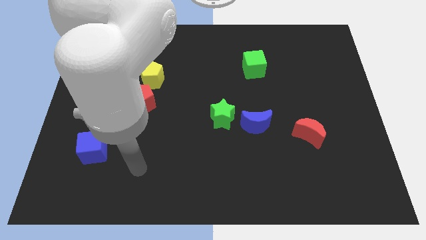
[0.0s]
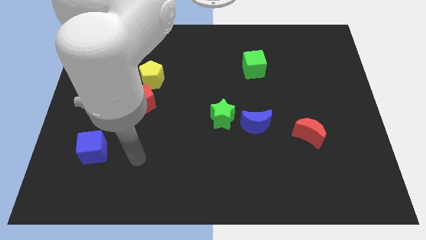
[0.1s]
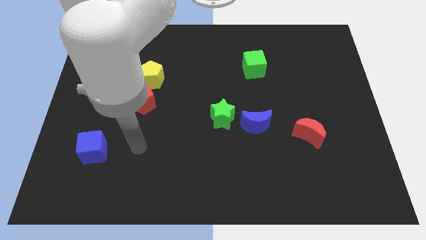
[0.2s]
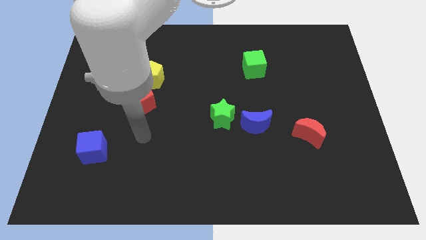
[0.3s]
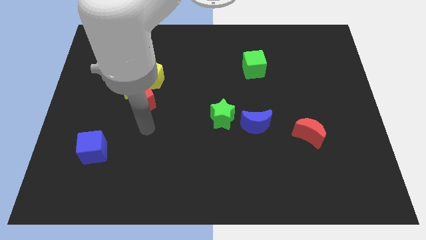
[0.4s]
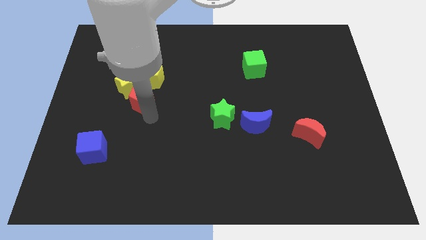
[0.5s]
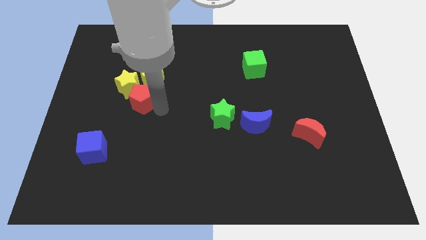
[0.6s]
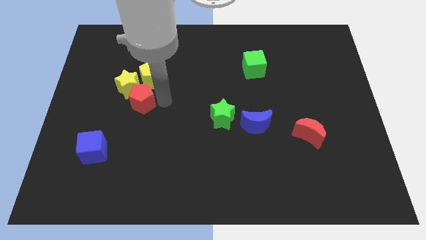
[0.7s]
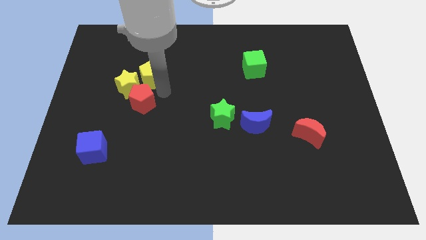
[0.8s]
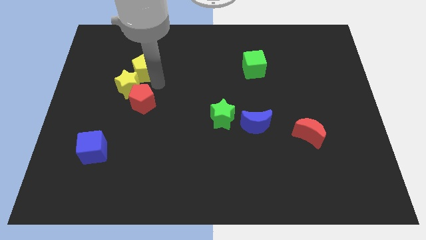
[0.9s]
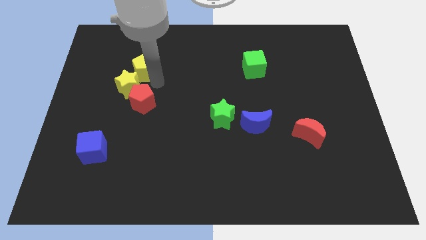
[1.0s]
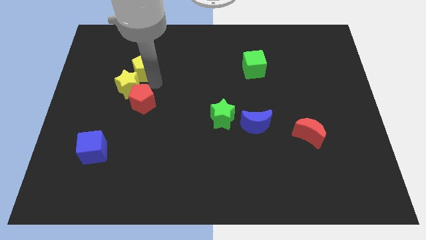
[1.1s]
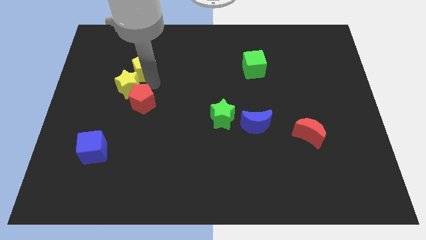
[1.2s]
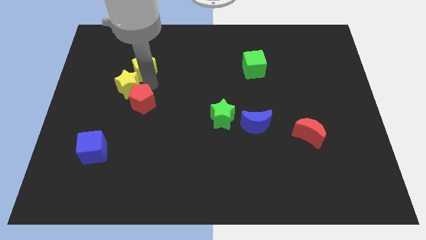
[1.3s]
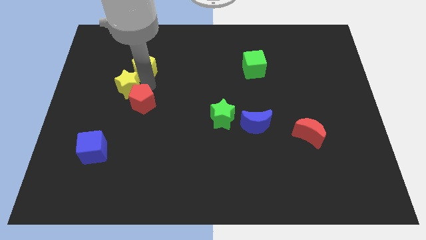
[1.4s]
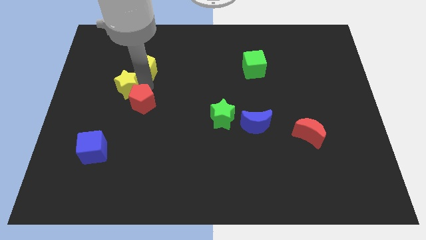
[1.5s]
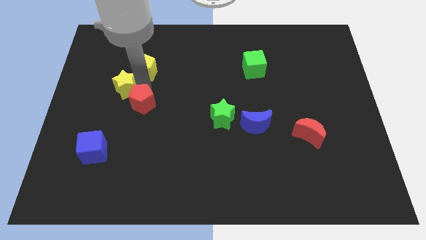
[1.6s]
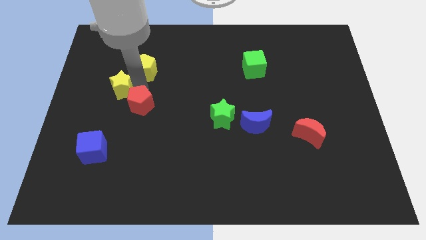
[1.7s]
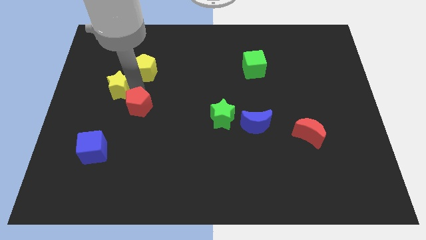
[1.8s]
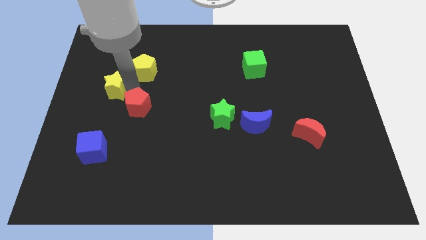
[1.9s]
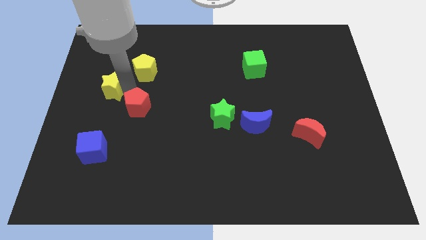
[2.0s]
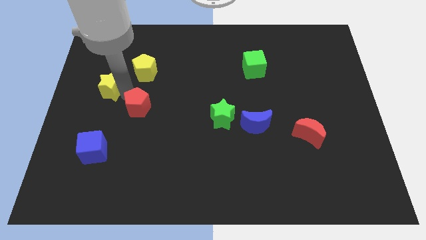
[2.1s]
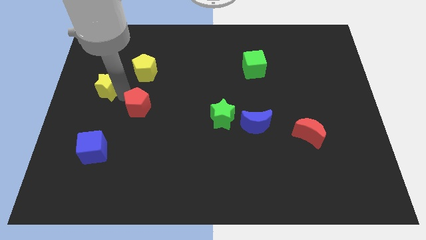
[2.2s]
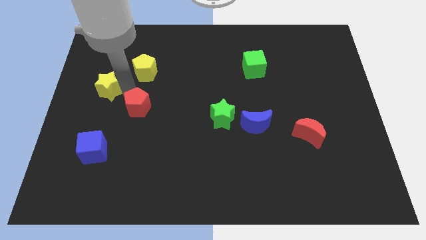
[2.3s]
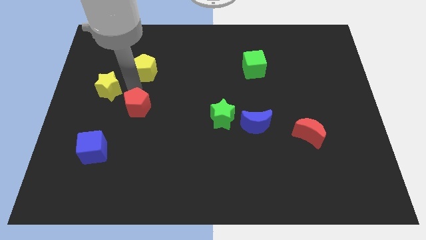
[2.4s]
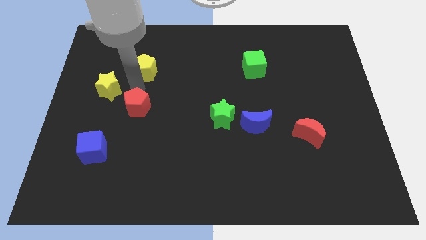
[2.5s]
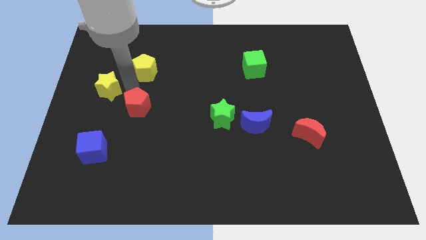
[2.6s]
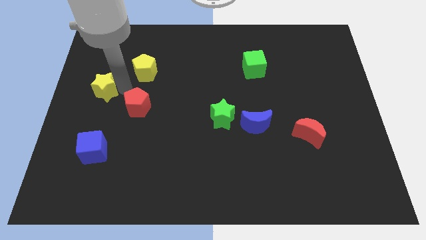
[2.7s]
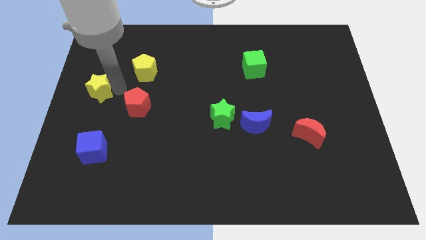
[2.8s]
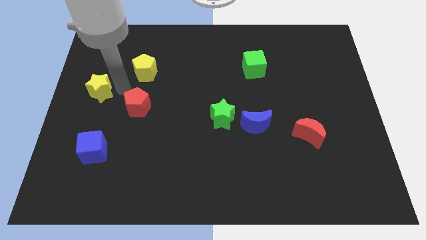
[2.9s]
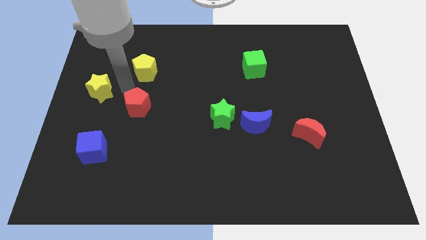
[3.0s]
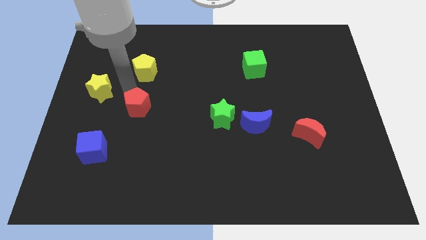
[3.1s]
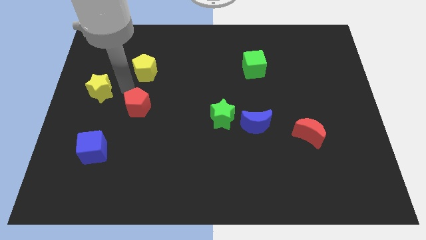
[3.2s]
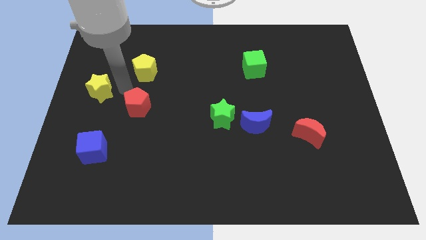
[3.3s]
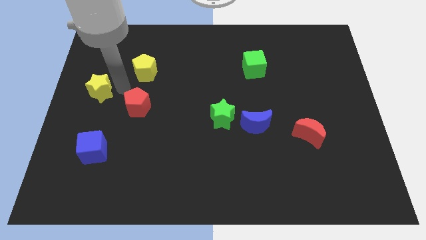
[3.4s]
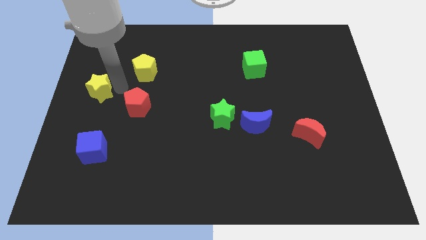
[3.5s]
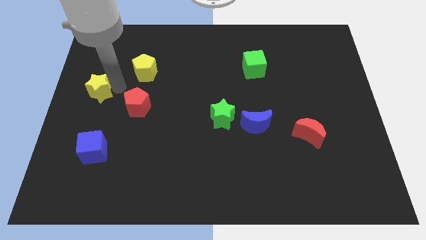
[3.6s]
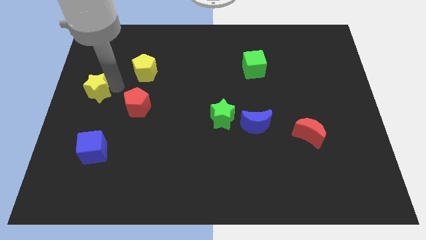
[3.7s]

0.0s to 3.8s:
move the yellow star away from the yellow pentagon and red pentagon

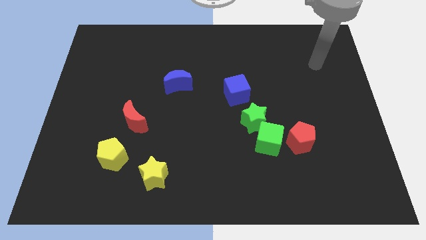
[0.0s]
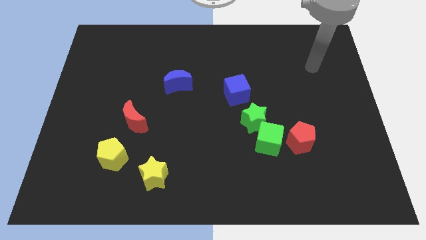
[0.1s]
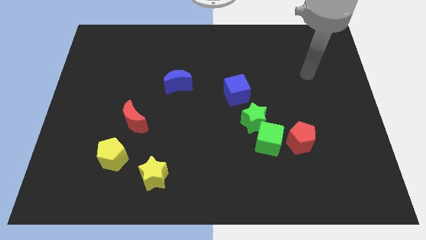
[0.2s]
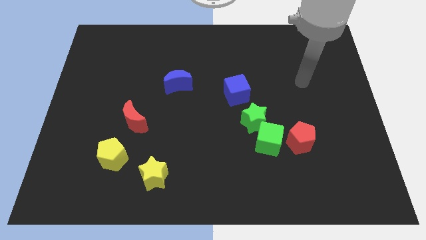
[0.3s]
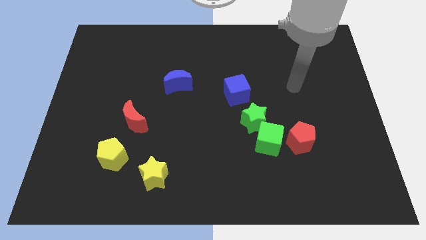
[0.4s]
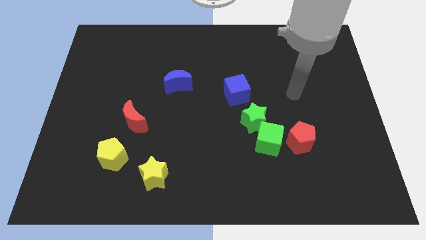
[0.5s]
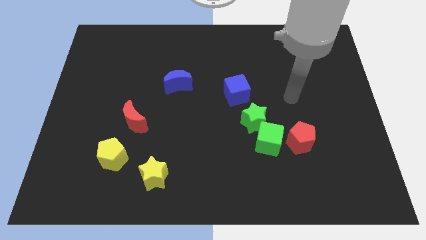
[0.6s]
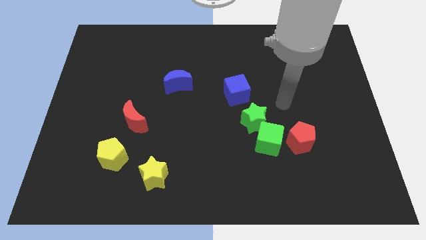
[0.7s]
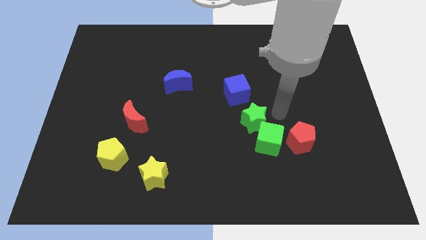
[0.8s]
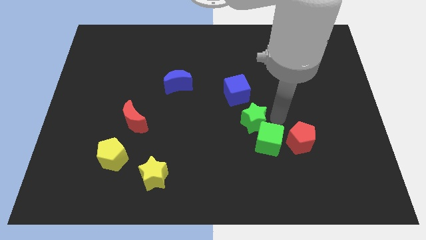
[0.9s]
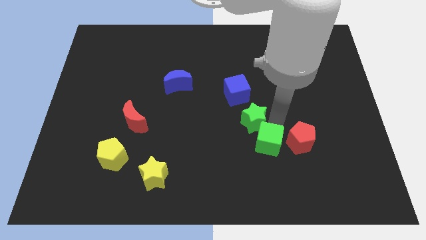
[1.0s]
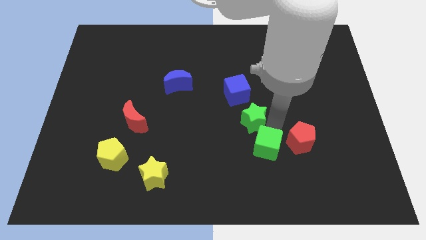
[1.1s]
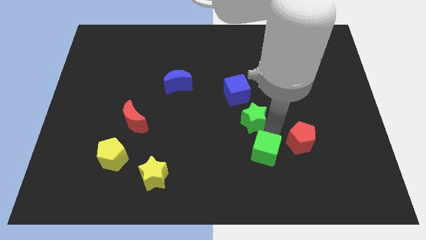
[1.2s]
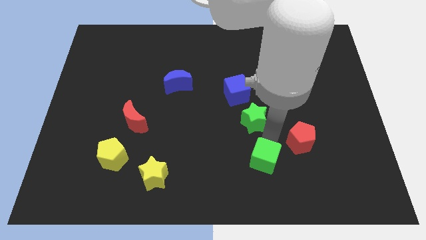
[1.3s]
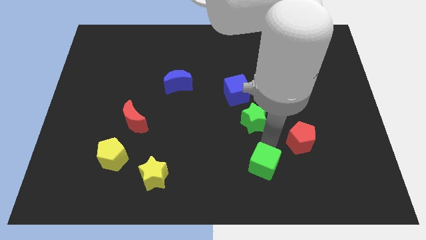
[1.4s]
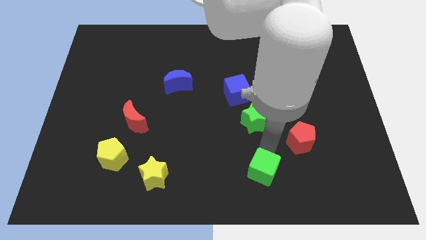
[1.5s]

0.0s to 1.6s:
move the green cube away from the green star and red pentagon

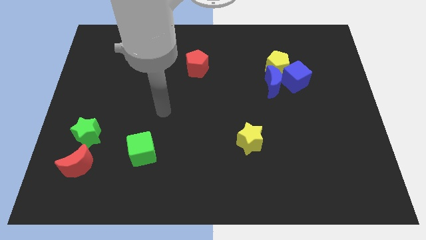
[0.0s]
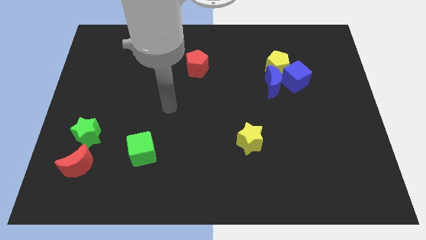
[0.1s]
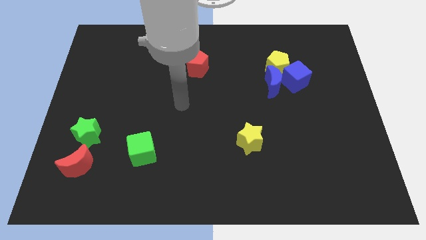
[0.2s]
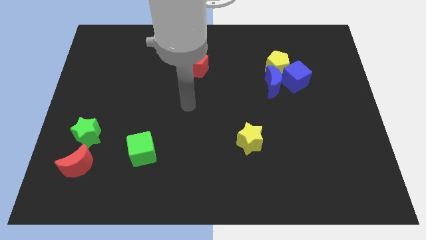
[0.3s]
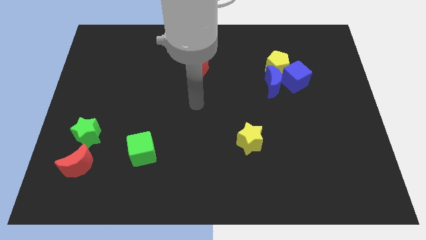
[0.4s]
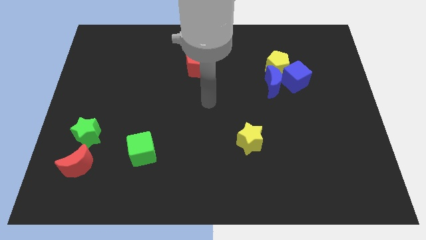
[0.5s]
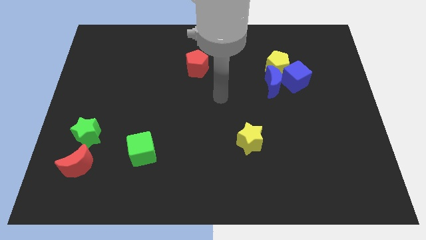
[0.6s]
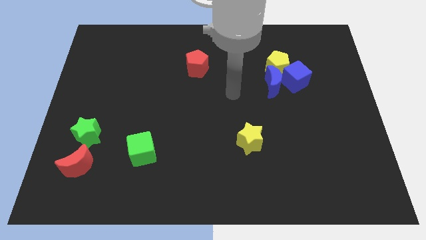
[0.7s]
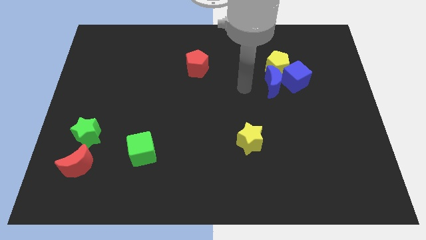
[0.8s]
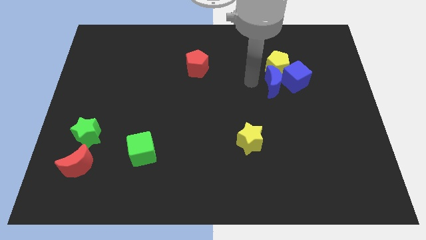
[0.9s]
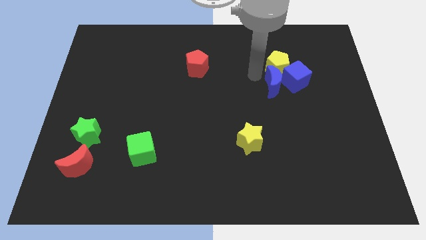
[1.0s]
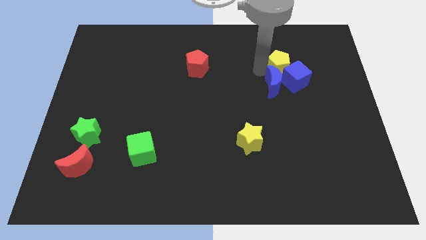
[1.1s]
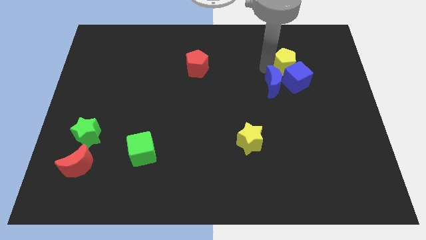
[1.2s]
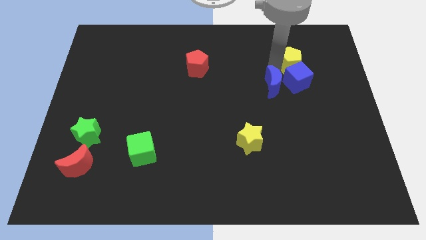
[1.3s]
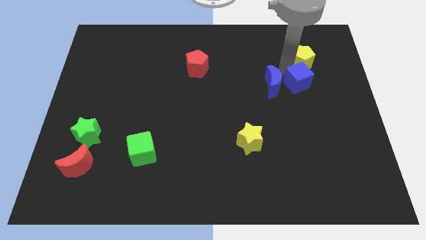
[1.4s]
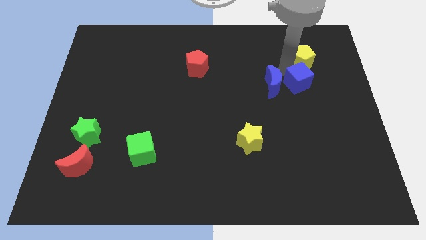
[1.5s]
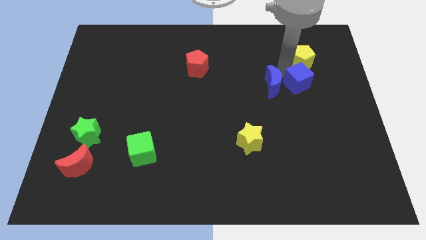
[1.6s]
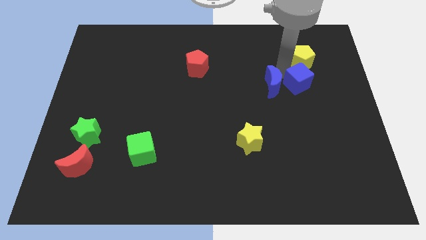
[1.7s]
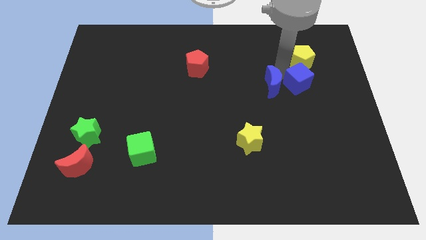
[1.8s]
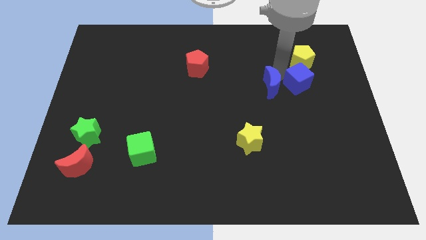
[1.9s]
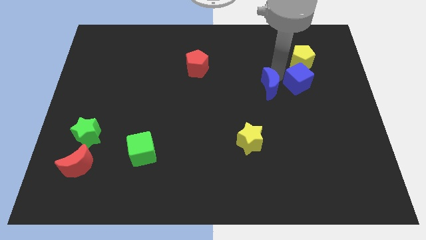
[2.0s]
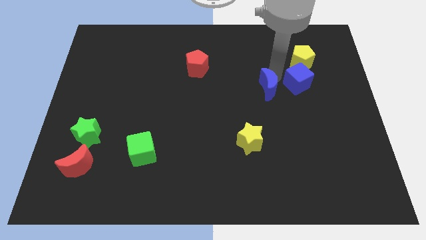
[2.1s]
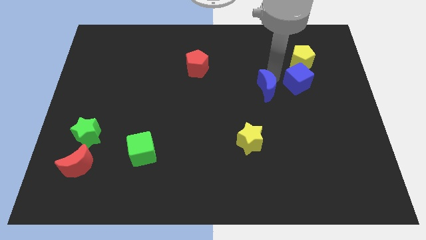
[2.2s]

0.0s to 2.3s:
pull the blue moon apart from the yellow pentagon and blue cube

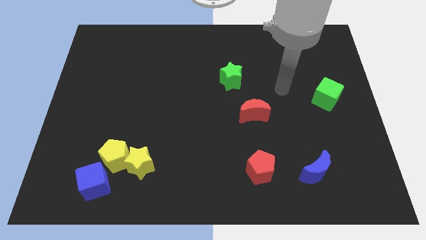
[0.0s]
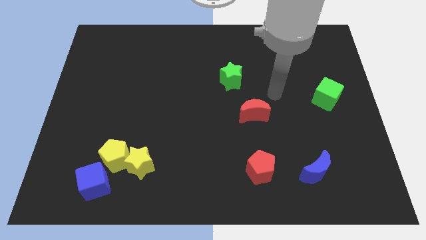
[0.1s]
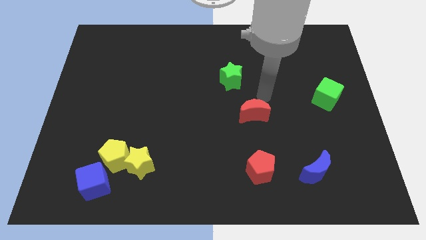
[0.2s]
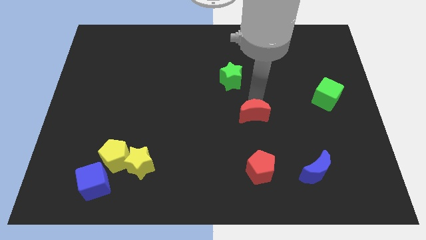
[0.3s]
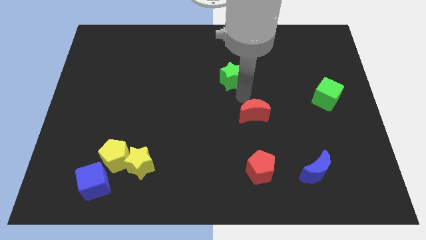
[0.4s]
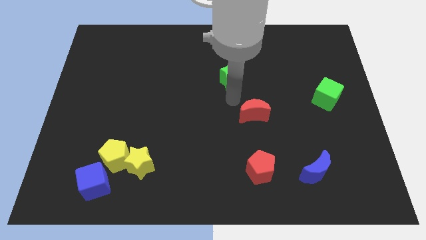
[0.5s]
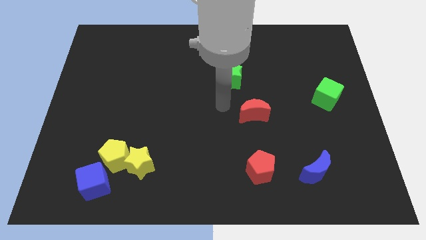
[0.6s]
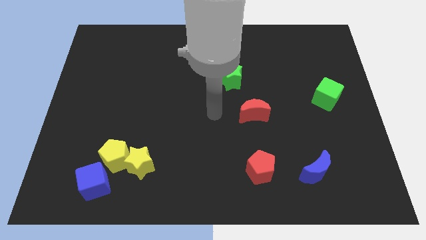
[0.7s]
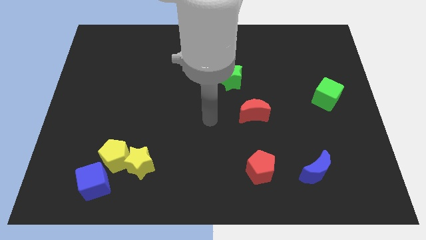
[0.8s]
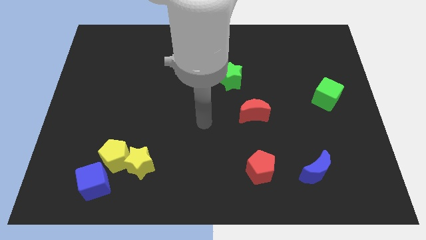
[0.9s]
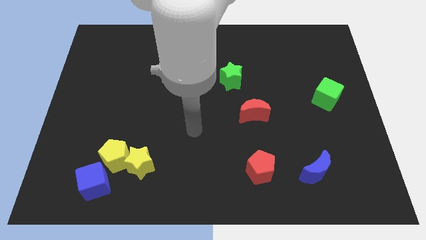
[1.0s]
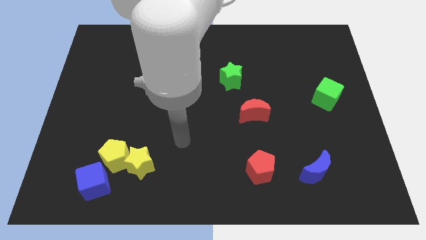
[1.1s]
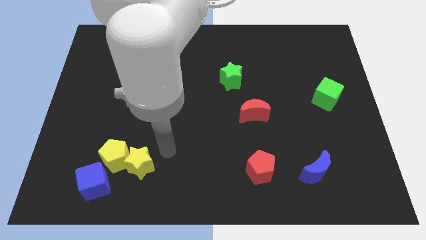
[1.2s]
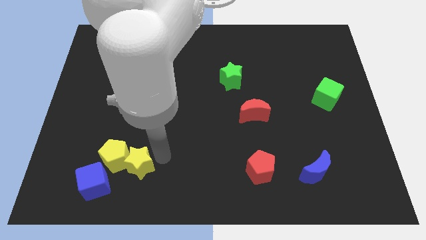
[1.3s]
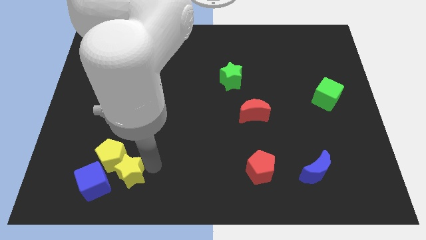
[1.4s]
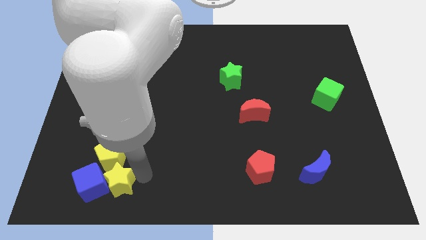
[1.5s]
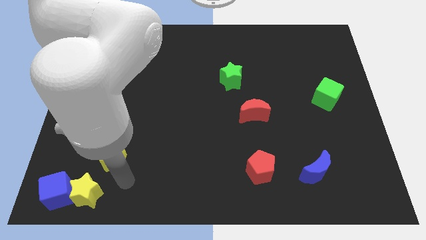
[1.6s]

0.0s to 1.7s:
move the yellow pentagon away from the yellow star and blue cube
